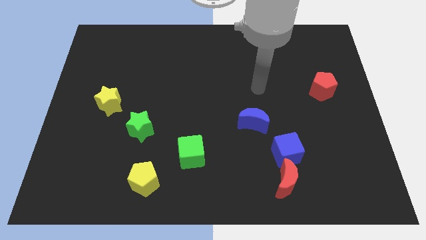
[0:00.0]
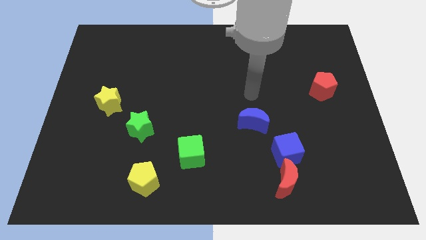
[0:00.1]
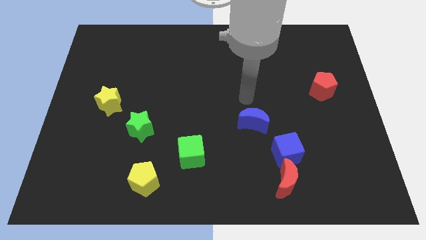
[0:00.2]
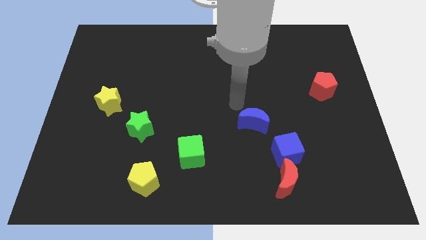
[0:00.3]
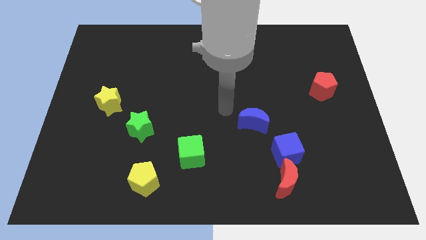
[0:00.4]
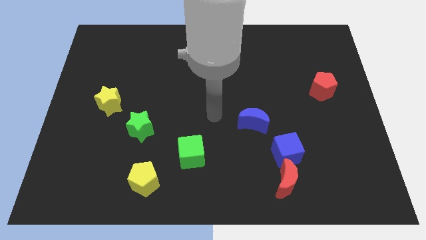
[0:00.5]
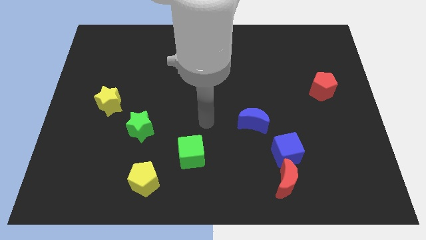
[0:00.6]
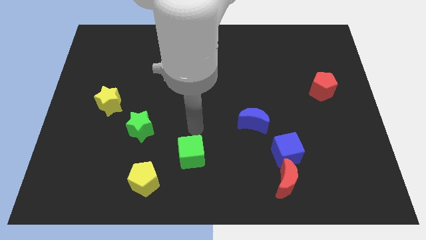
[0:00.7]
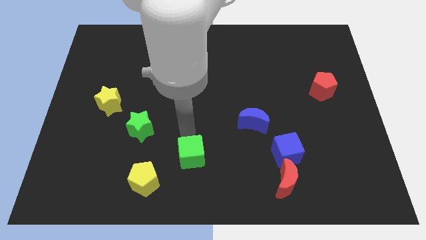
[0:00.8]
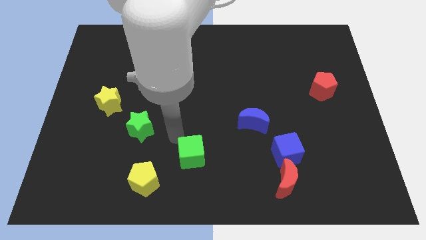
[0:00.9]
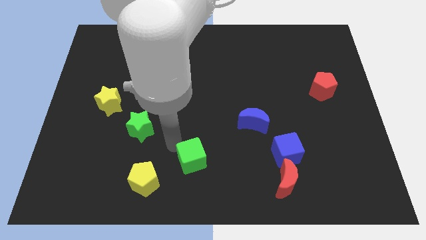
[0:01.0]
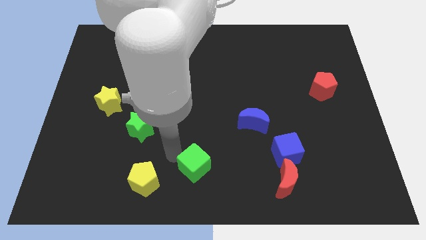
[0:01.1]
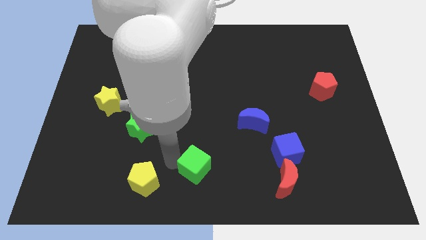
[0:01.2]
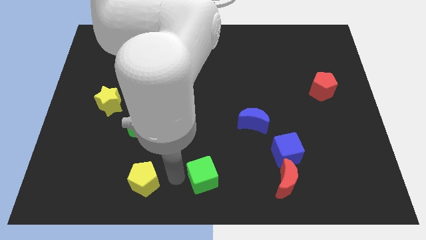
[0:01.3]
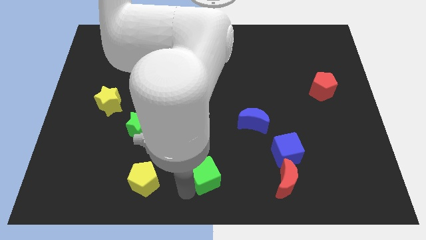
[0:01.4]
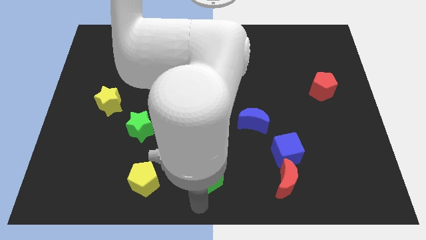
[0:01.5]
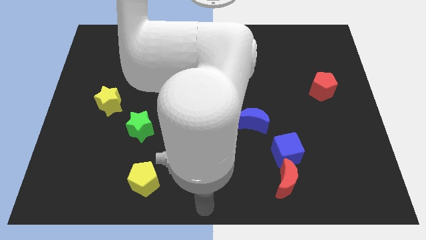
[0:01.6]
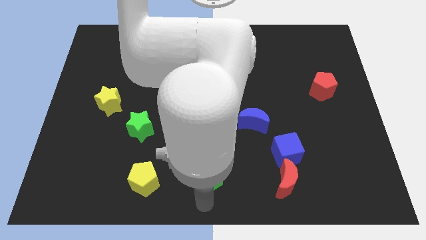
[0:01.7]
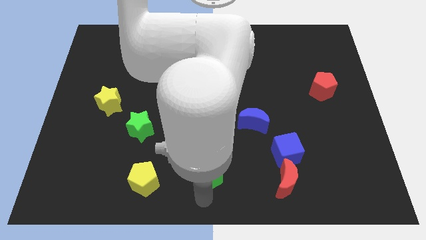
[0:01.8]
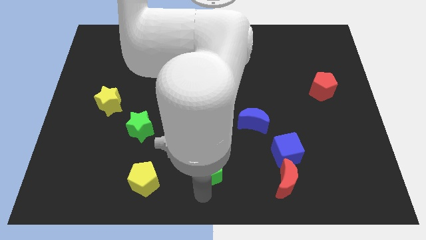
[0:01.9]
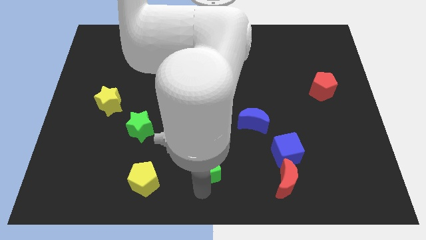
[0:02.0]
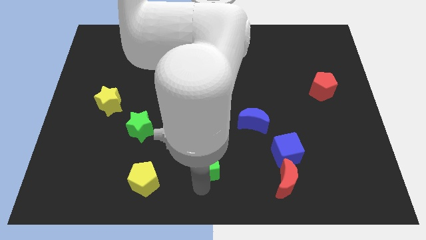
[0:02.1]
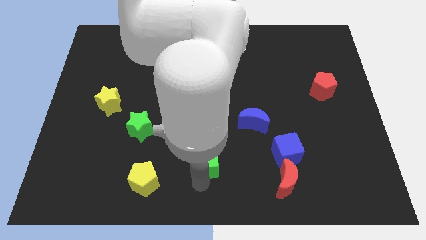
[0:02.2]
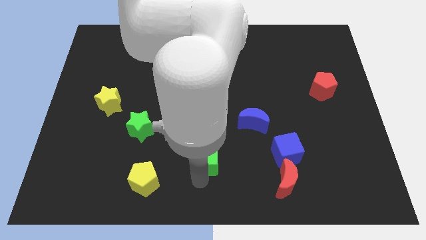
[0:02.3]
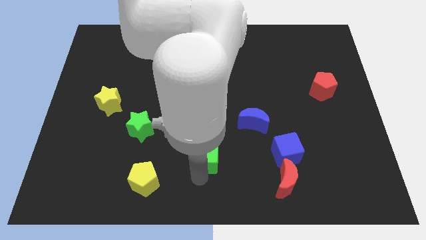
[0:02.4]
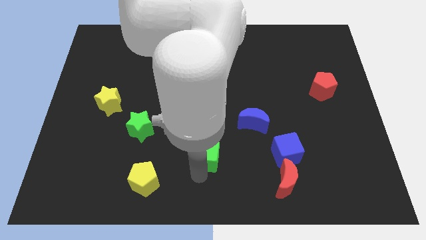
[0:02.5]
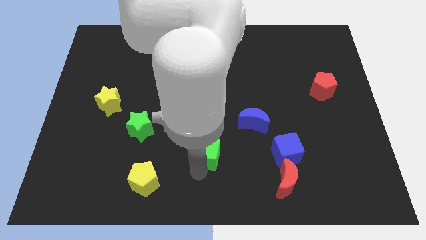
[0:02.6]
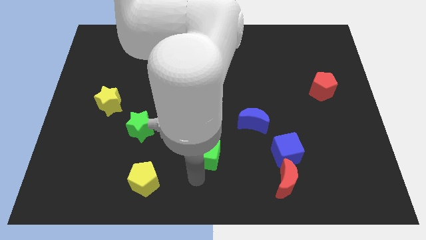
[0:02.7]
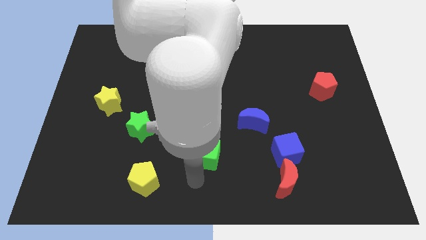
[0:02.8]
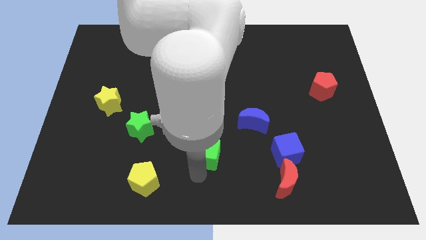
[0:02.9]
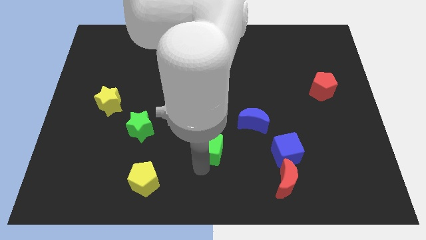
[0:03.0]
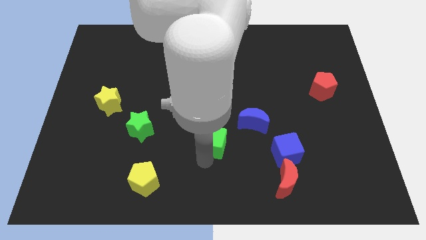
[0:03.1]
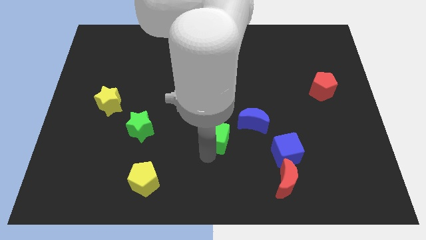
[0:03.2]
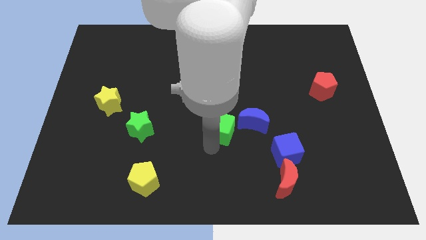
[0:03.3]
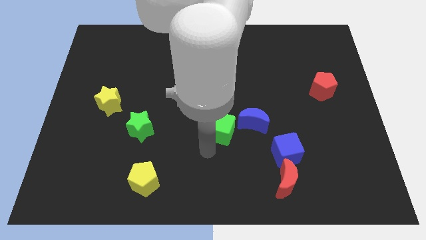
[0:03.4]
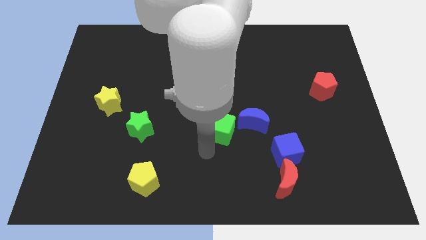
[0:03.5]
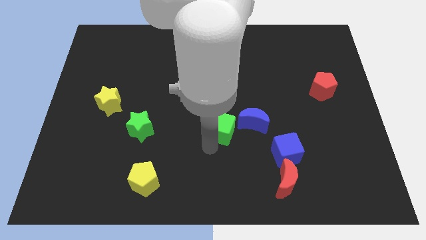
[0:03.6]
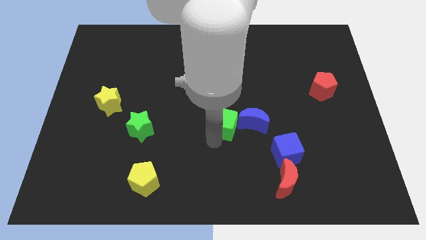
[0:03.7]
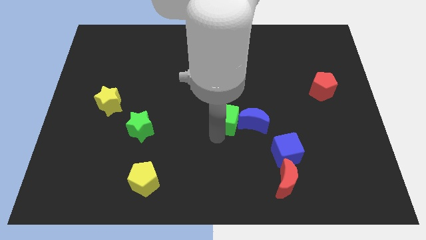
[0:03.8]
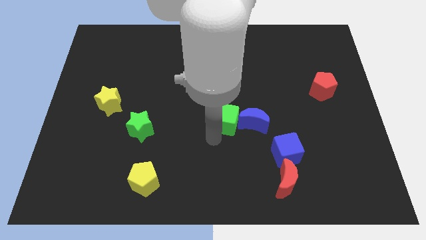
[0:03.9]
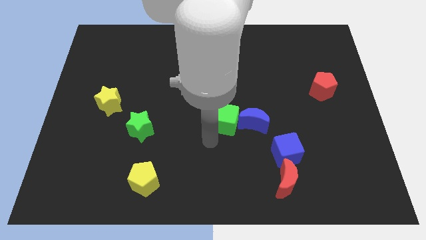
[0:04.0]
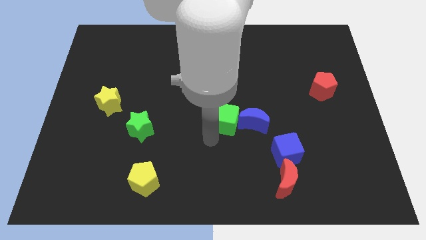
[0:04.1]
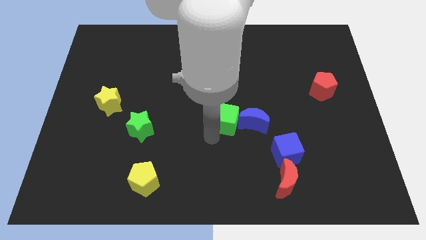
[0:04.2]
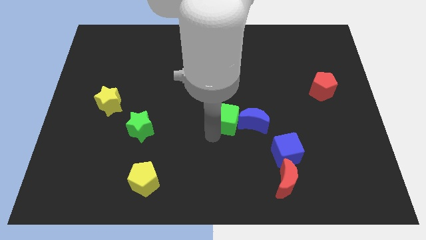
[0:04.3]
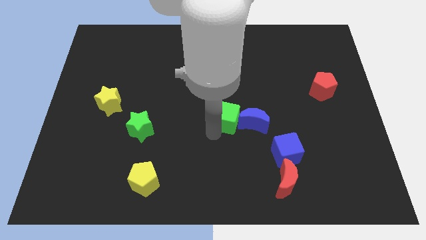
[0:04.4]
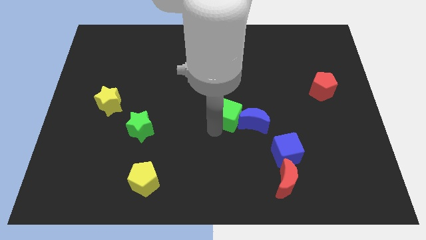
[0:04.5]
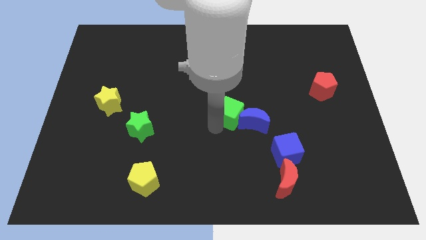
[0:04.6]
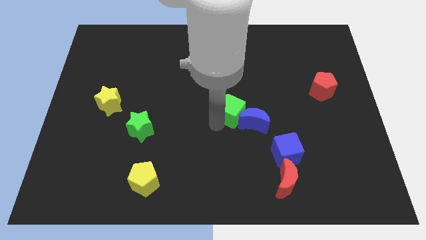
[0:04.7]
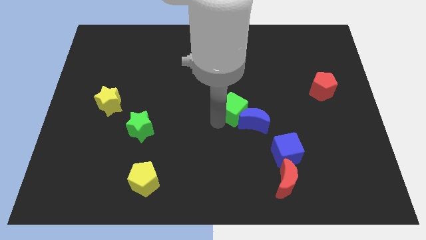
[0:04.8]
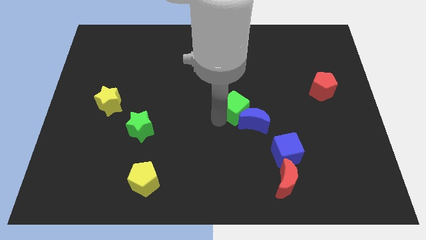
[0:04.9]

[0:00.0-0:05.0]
put the green cube above the blue moon

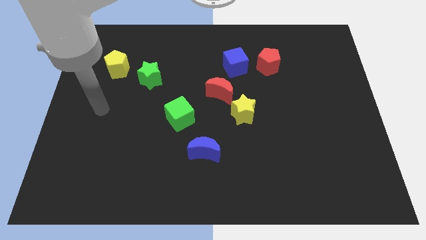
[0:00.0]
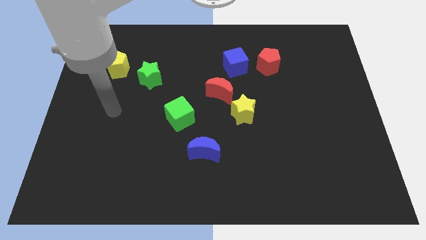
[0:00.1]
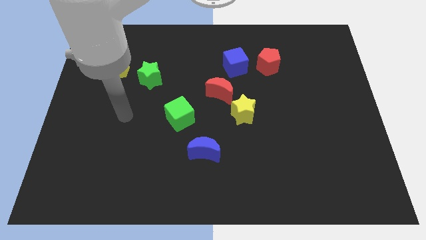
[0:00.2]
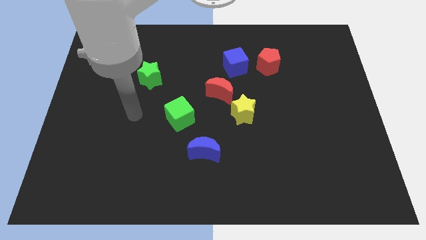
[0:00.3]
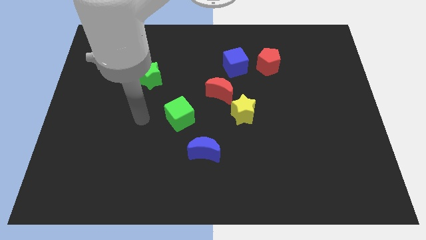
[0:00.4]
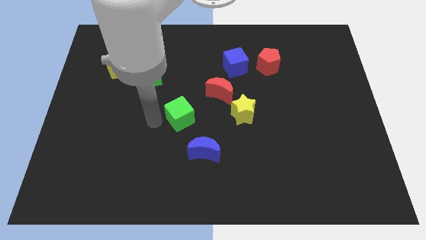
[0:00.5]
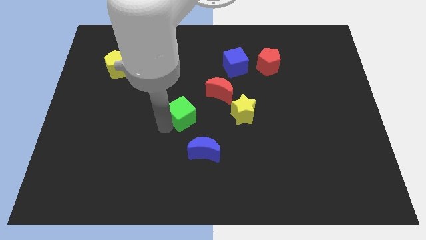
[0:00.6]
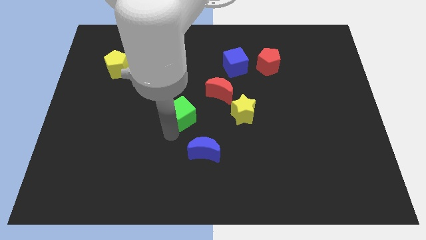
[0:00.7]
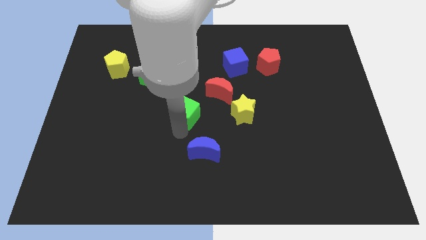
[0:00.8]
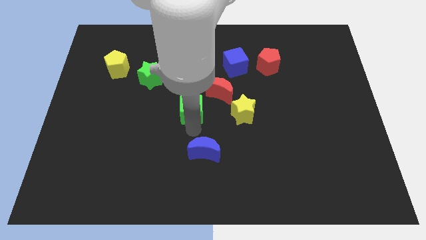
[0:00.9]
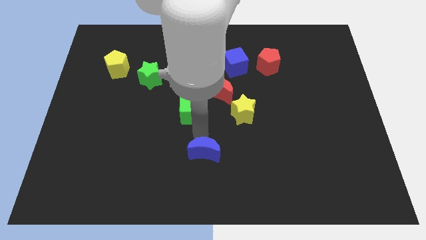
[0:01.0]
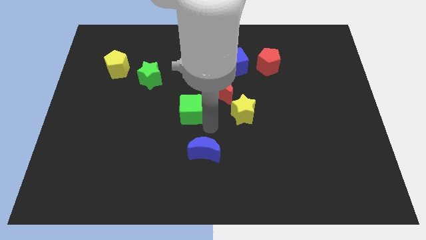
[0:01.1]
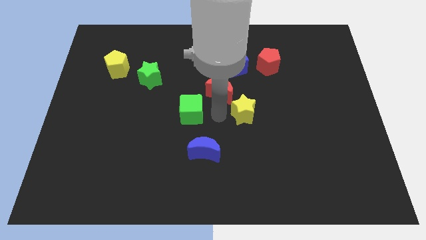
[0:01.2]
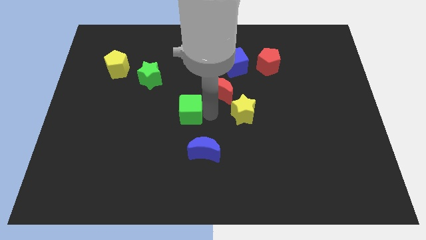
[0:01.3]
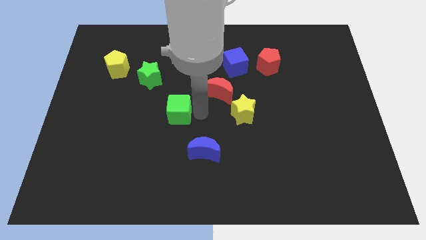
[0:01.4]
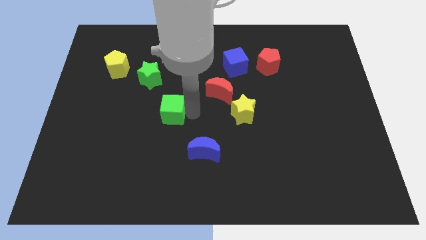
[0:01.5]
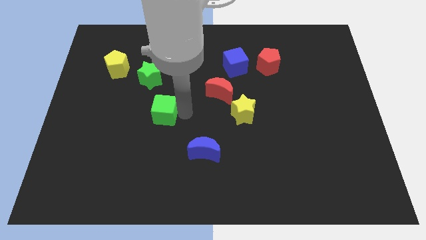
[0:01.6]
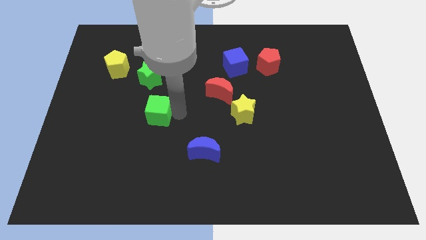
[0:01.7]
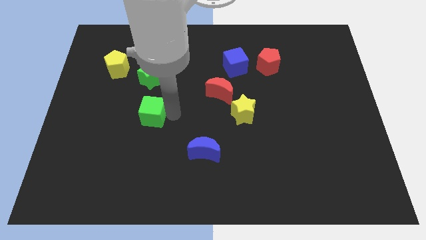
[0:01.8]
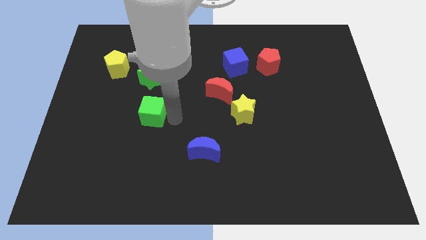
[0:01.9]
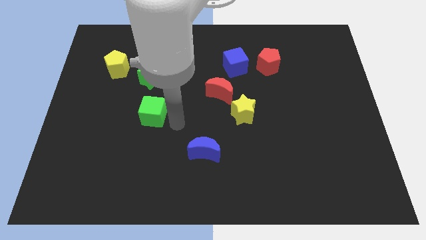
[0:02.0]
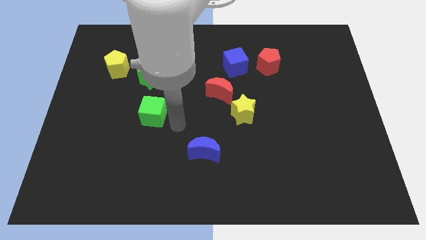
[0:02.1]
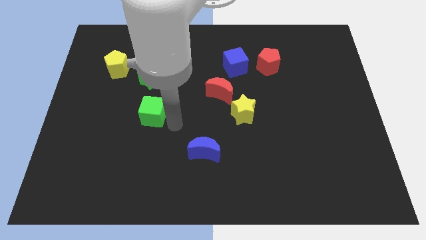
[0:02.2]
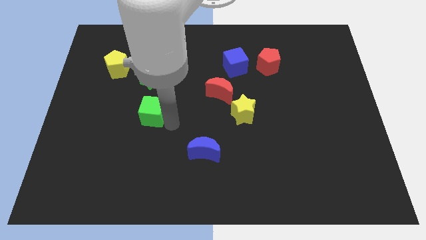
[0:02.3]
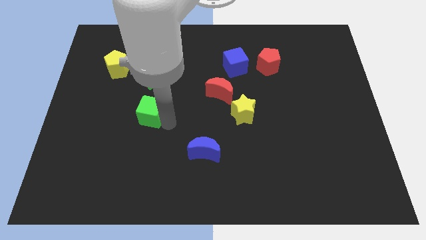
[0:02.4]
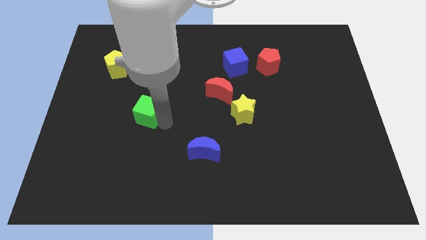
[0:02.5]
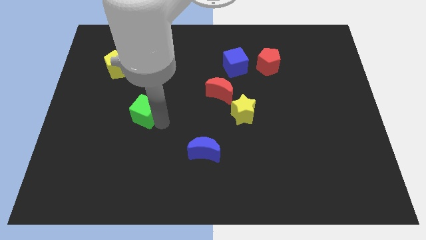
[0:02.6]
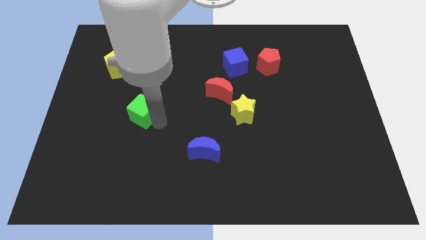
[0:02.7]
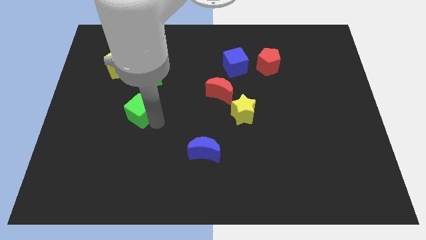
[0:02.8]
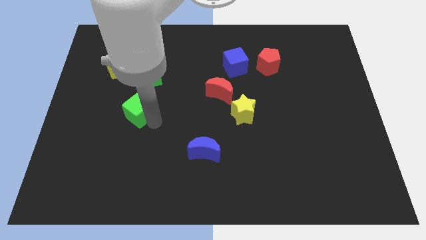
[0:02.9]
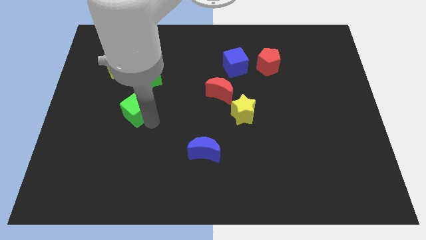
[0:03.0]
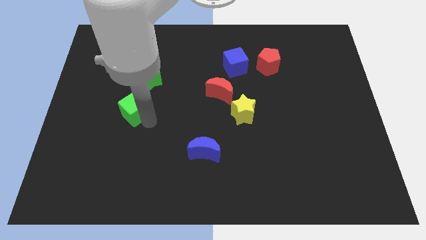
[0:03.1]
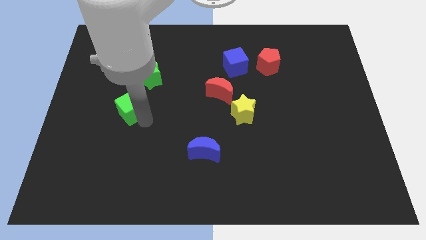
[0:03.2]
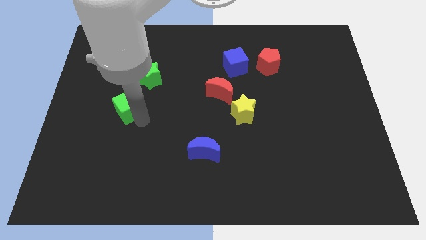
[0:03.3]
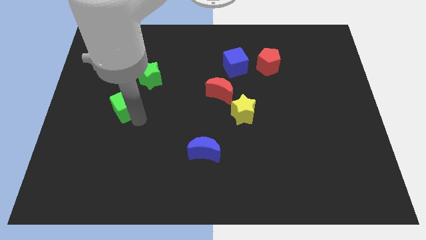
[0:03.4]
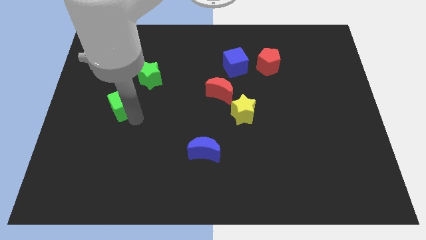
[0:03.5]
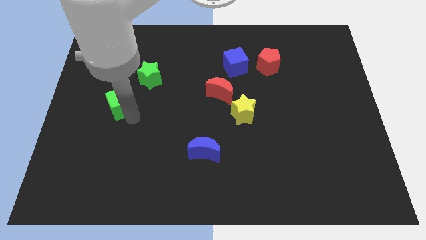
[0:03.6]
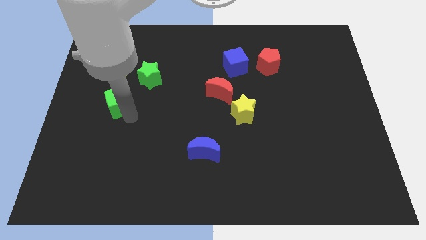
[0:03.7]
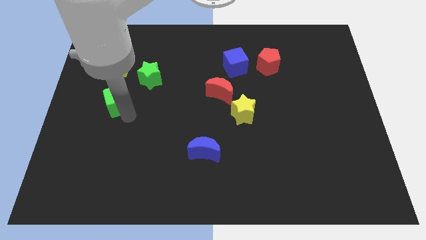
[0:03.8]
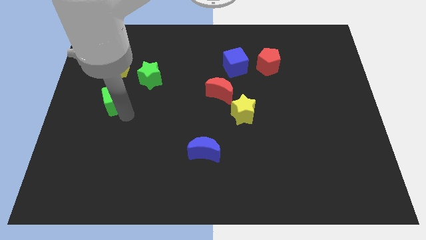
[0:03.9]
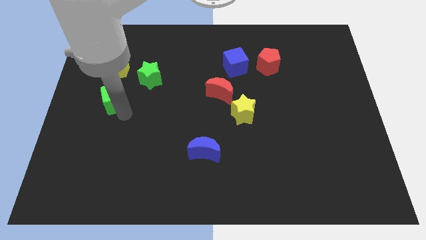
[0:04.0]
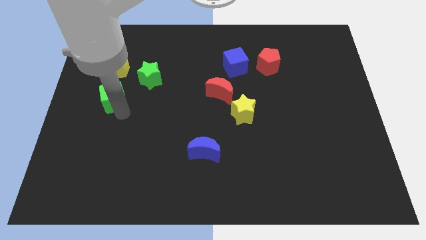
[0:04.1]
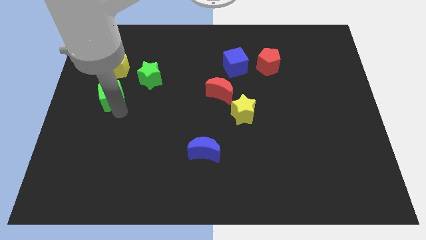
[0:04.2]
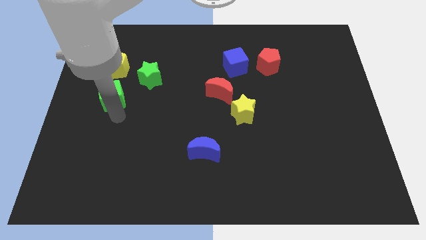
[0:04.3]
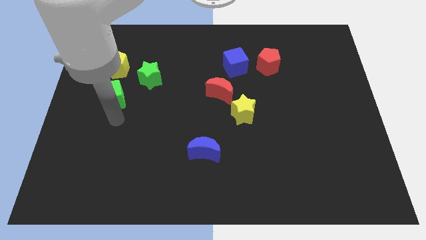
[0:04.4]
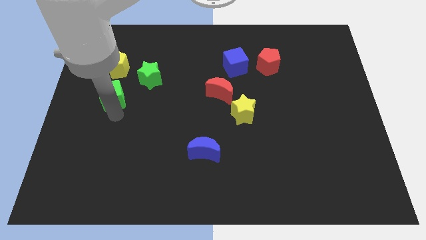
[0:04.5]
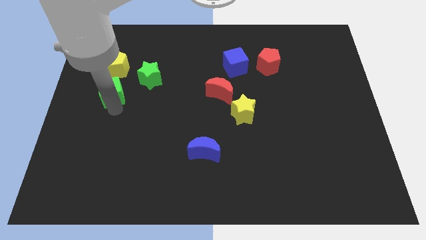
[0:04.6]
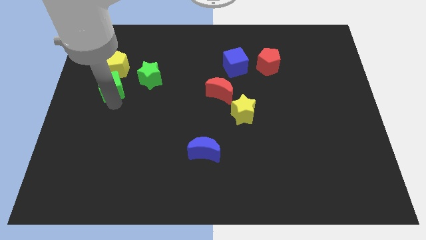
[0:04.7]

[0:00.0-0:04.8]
move the green cube to the left of the green star
